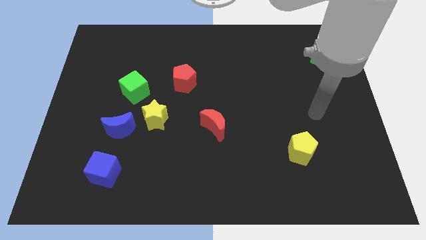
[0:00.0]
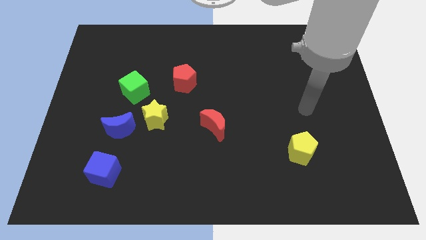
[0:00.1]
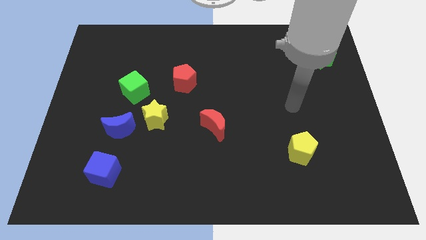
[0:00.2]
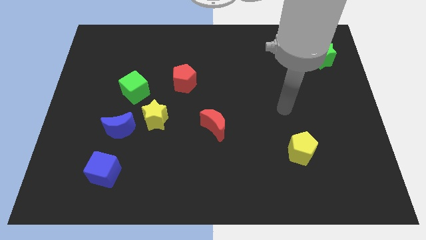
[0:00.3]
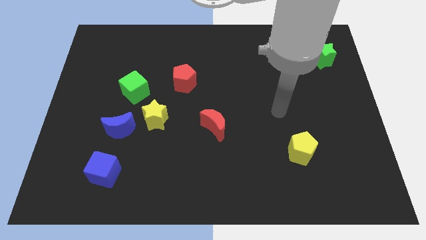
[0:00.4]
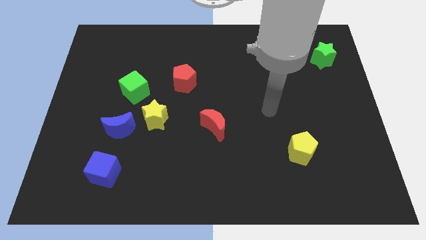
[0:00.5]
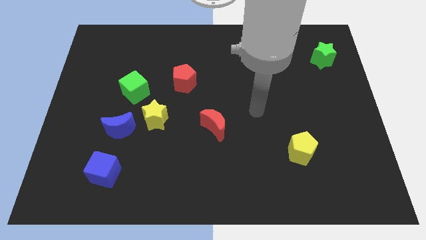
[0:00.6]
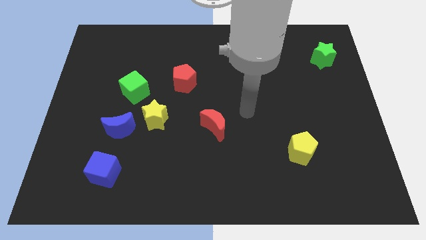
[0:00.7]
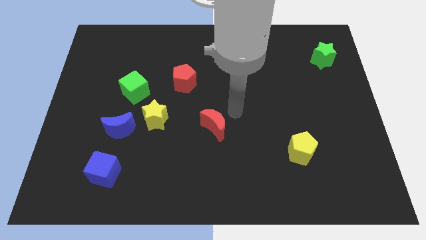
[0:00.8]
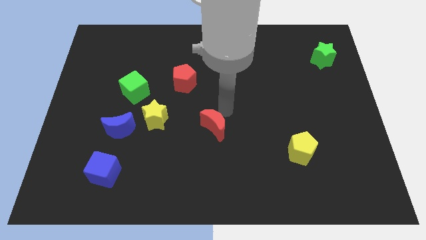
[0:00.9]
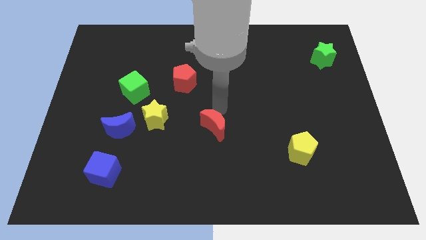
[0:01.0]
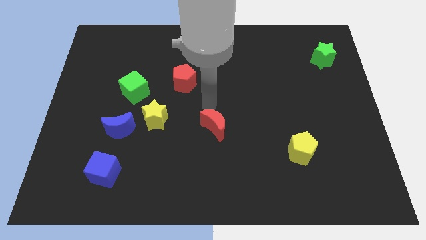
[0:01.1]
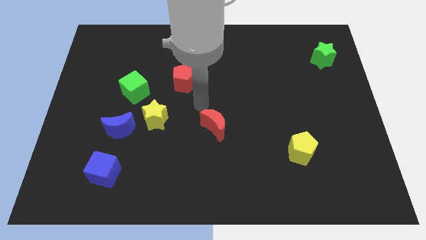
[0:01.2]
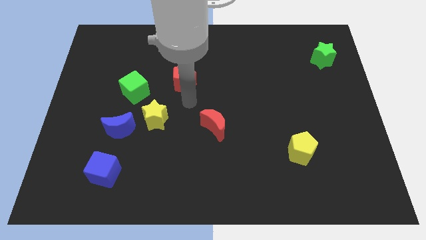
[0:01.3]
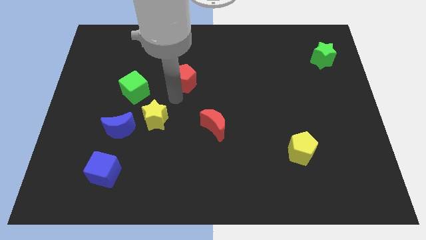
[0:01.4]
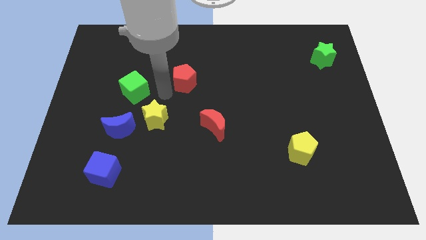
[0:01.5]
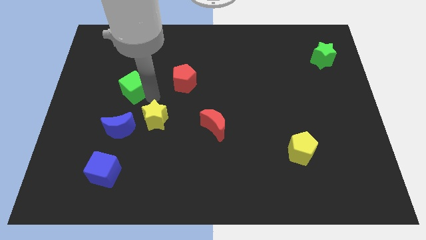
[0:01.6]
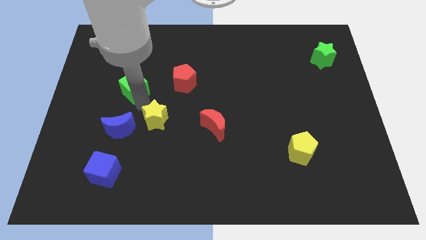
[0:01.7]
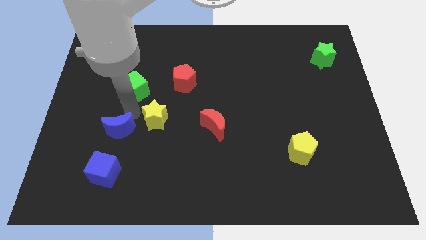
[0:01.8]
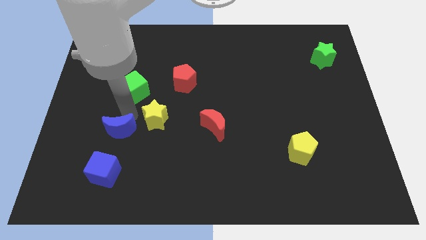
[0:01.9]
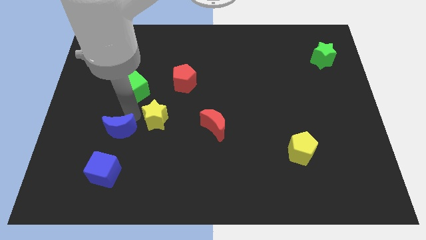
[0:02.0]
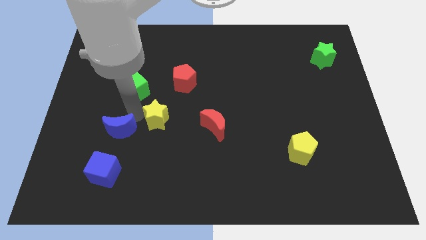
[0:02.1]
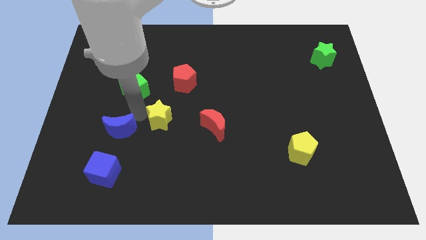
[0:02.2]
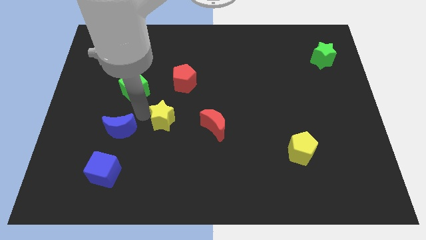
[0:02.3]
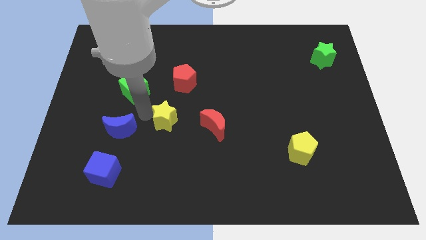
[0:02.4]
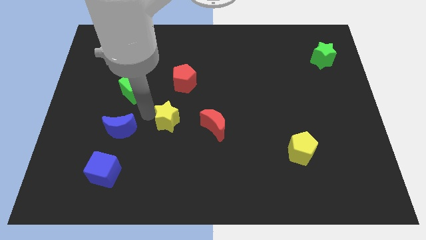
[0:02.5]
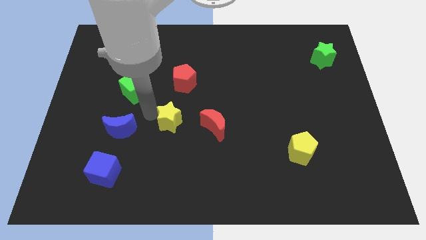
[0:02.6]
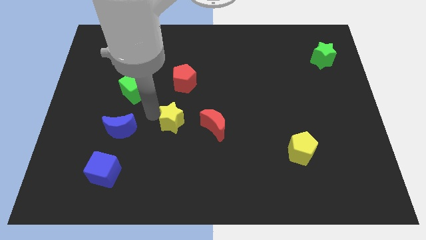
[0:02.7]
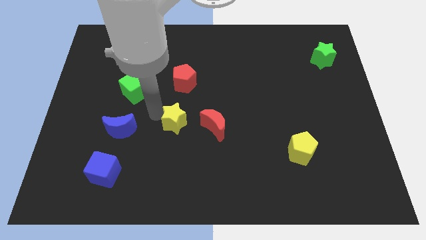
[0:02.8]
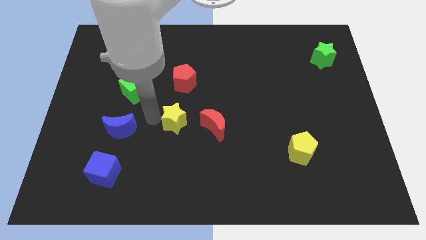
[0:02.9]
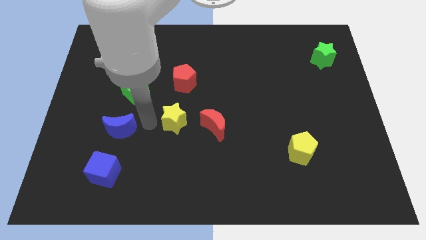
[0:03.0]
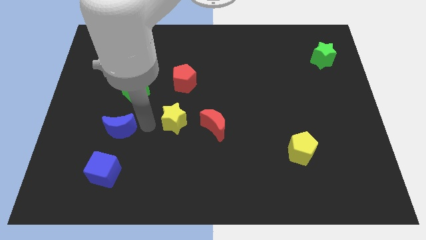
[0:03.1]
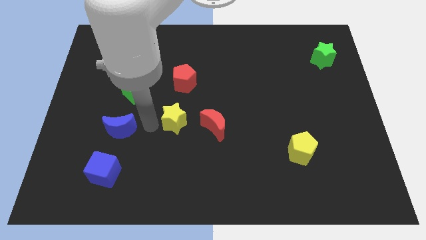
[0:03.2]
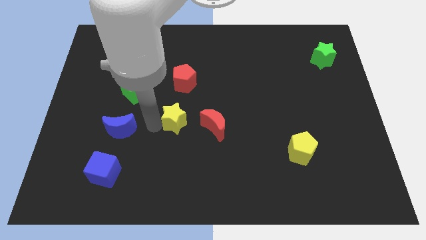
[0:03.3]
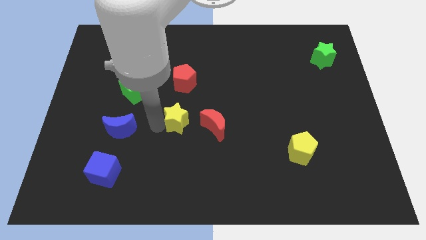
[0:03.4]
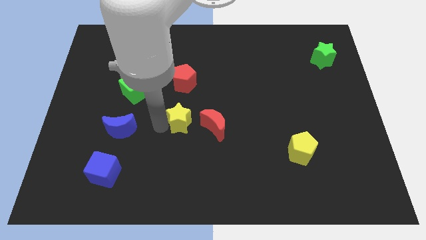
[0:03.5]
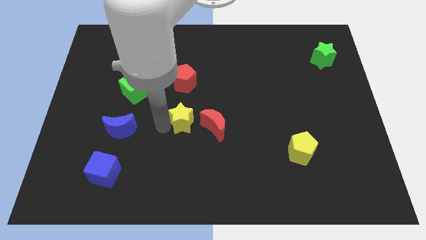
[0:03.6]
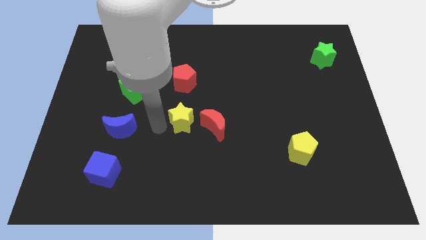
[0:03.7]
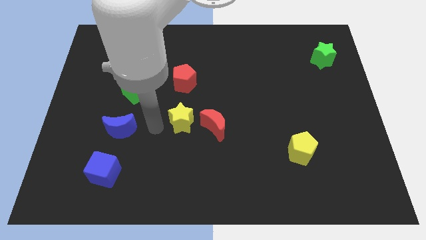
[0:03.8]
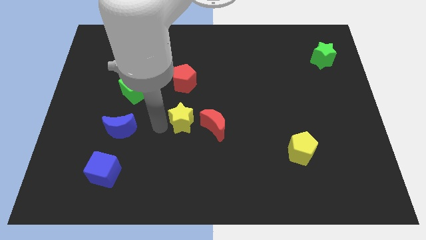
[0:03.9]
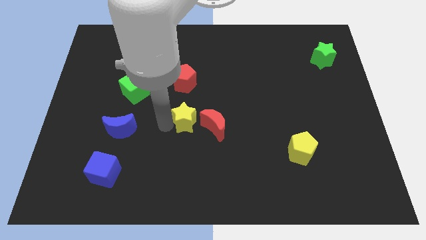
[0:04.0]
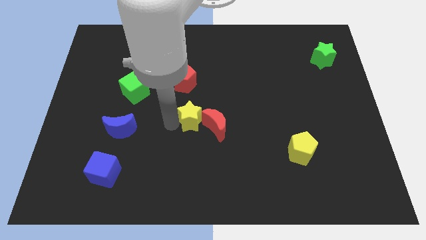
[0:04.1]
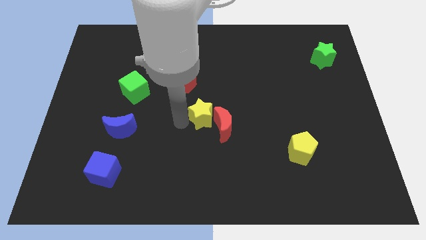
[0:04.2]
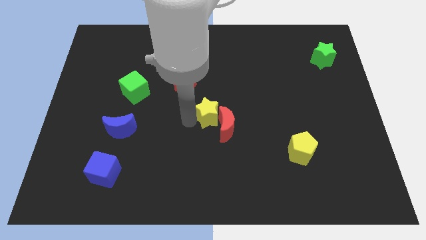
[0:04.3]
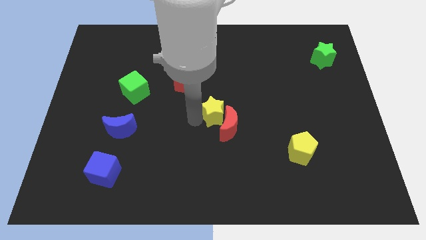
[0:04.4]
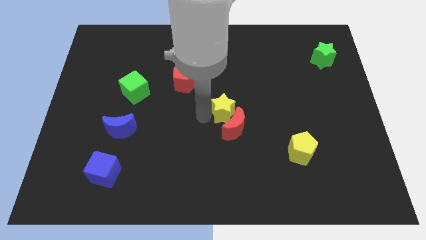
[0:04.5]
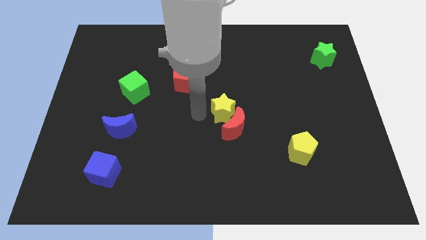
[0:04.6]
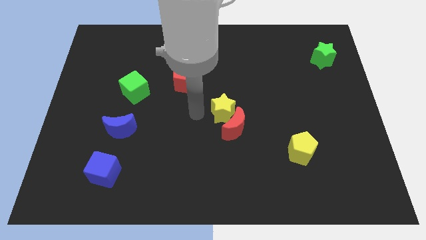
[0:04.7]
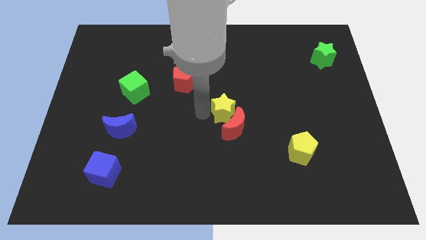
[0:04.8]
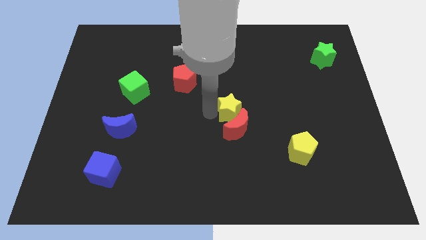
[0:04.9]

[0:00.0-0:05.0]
slide the yellow star to the top right of the red moon

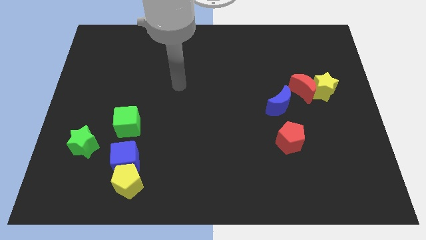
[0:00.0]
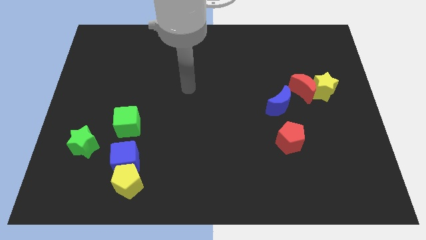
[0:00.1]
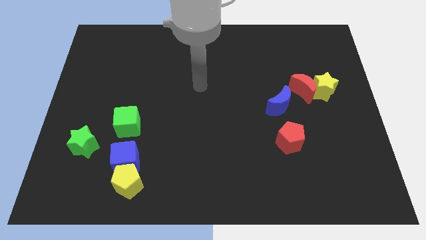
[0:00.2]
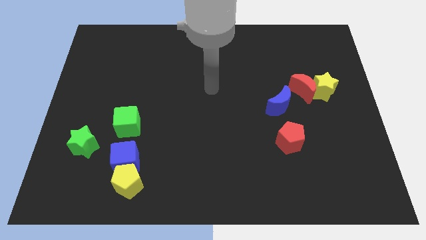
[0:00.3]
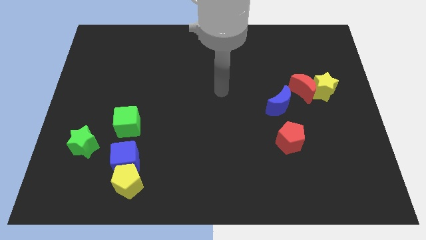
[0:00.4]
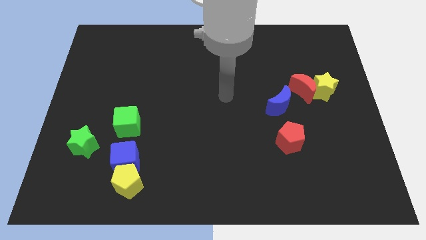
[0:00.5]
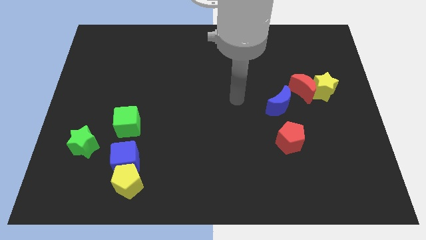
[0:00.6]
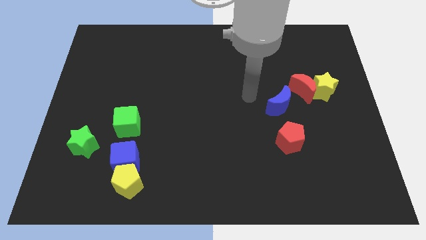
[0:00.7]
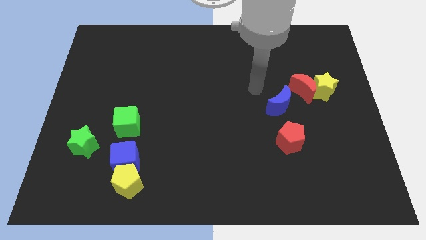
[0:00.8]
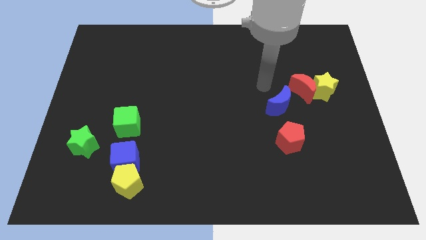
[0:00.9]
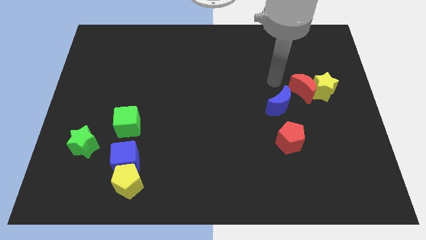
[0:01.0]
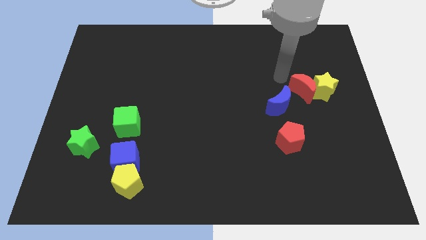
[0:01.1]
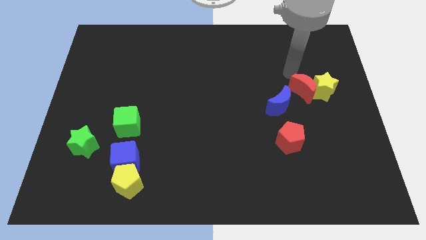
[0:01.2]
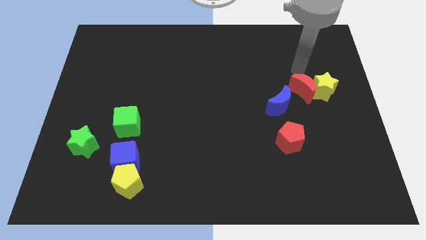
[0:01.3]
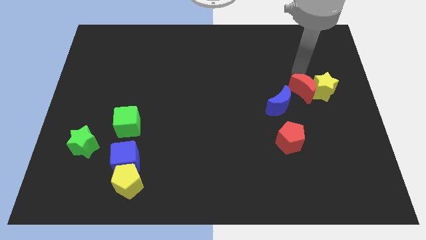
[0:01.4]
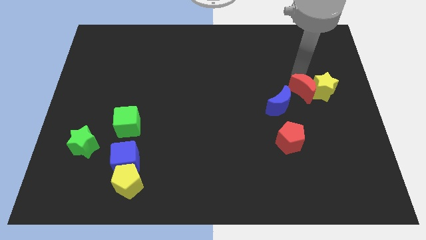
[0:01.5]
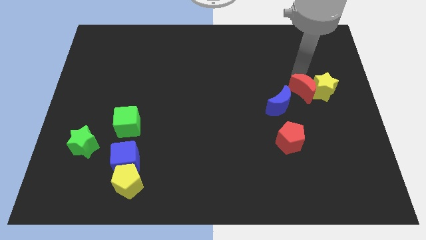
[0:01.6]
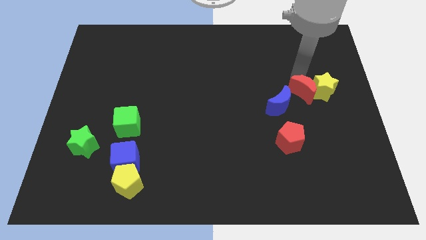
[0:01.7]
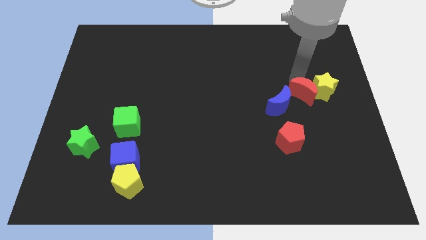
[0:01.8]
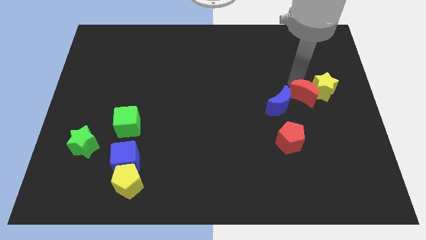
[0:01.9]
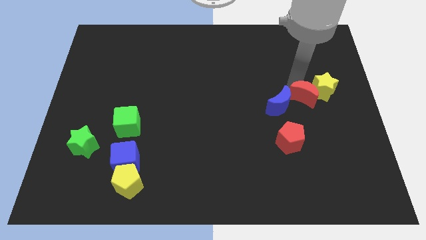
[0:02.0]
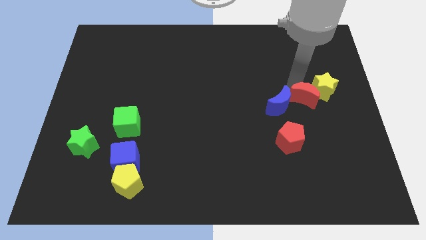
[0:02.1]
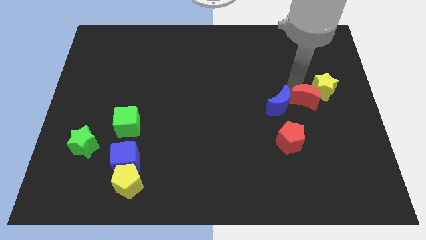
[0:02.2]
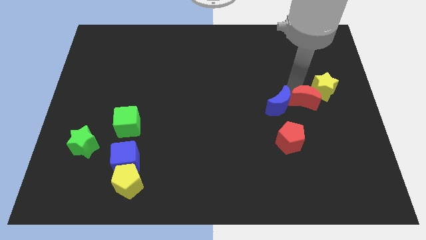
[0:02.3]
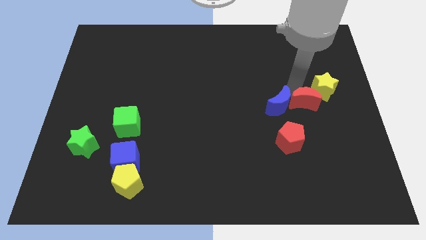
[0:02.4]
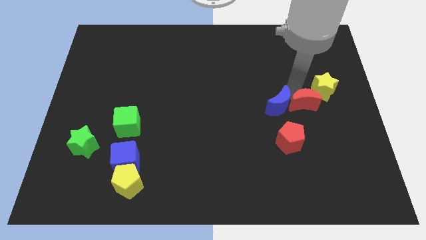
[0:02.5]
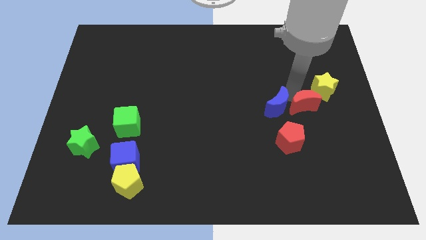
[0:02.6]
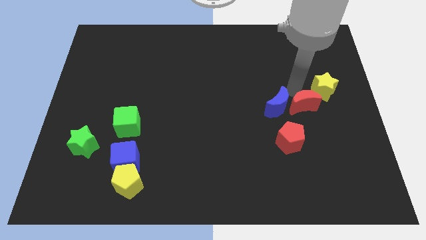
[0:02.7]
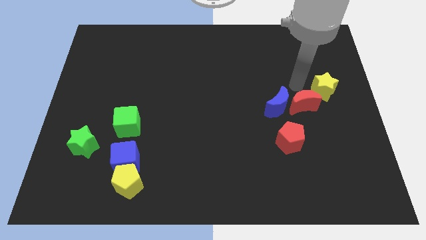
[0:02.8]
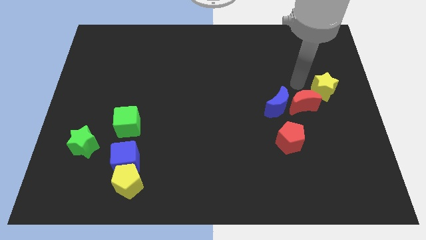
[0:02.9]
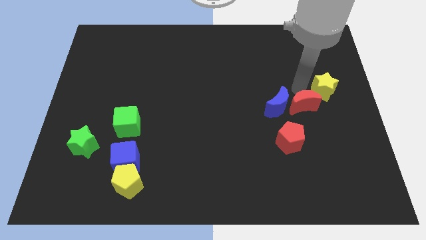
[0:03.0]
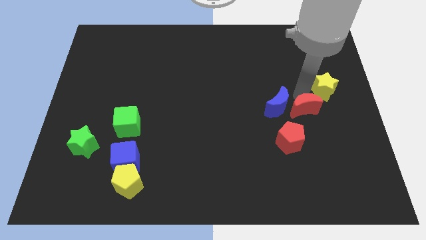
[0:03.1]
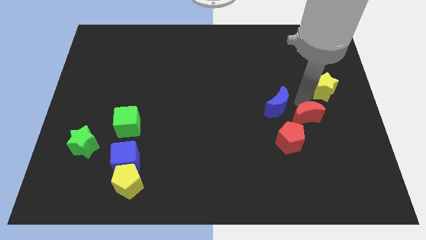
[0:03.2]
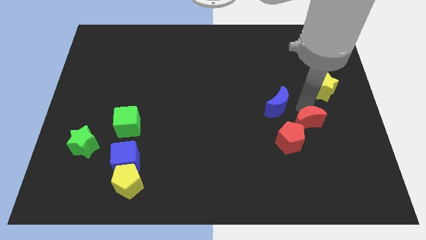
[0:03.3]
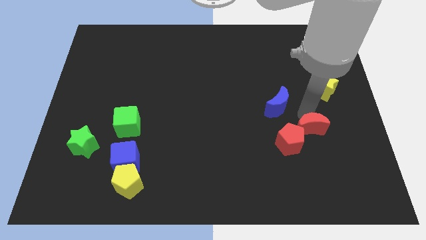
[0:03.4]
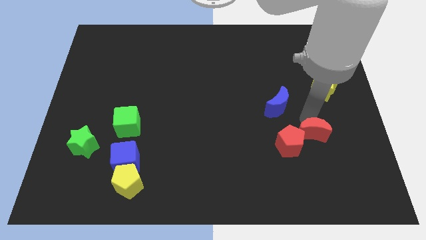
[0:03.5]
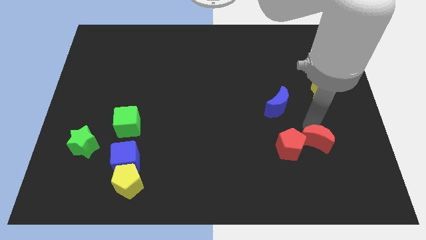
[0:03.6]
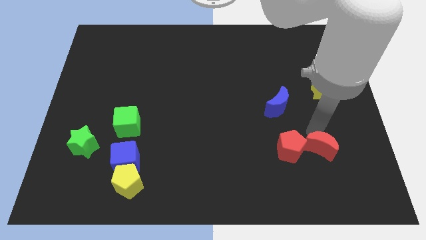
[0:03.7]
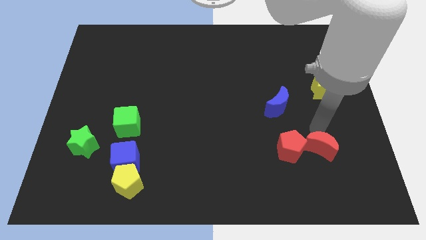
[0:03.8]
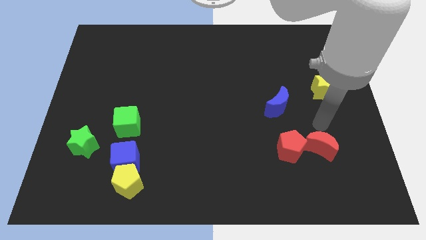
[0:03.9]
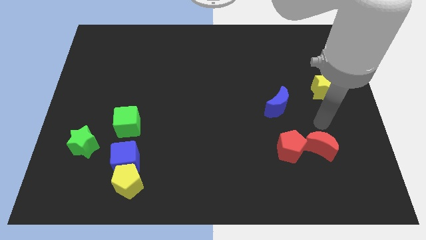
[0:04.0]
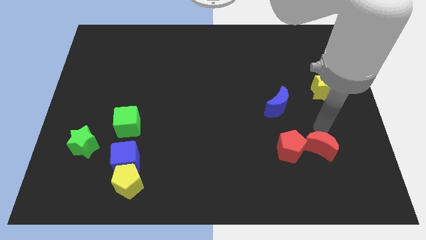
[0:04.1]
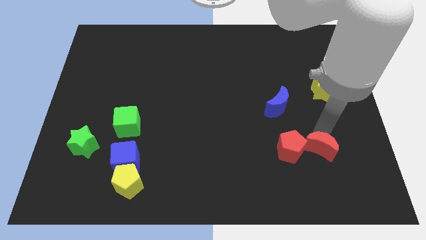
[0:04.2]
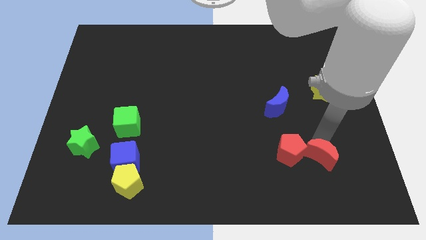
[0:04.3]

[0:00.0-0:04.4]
slide the red moon to the bottom right side of the red pentagon
